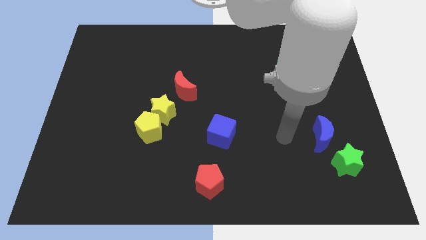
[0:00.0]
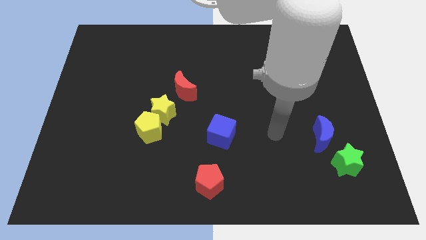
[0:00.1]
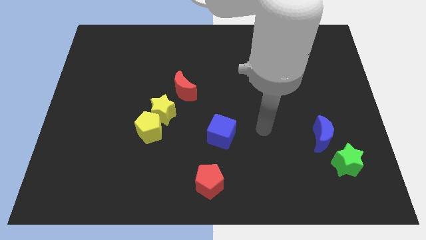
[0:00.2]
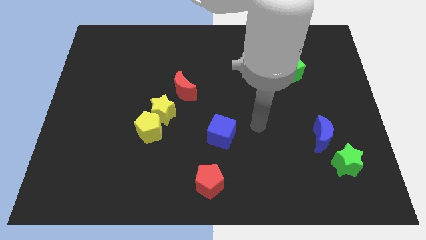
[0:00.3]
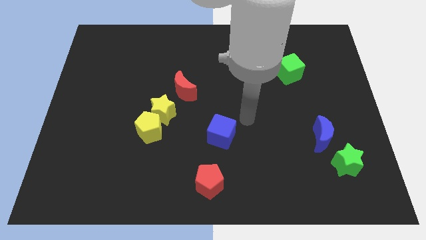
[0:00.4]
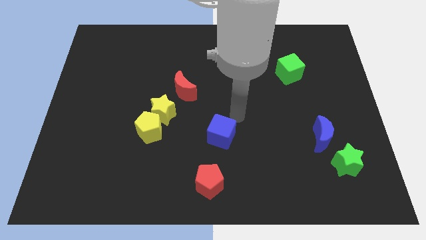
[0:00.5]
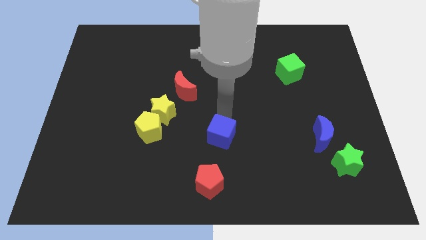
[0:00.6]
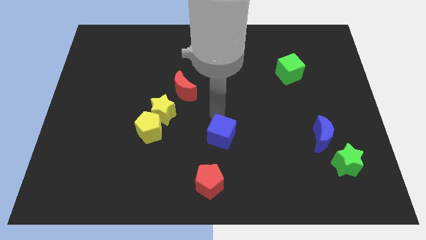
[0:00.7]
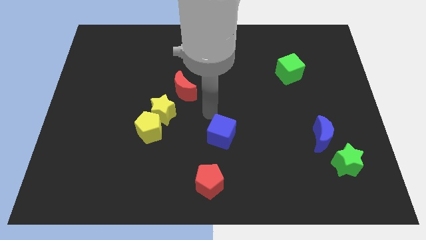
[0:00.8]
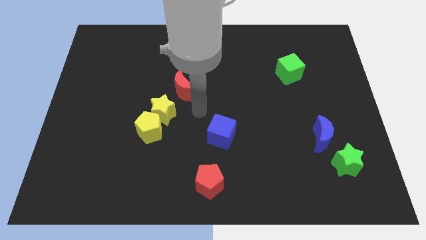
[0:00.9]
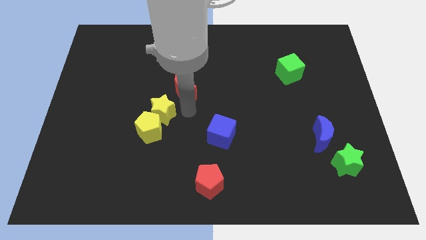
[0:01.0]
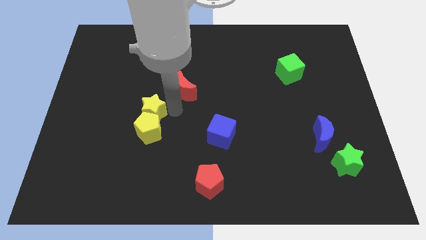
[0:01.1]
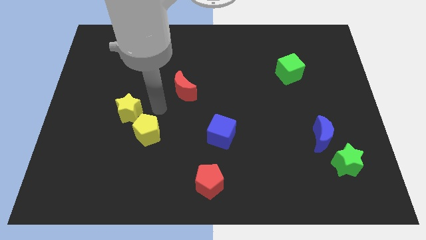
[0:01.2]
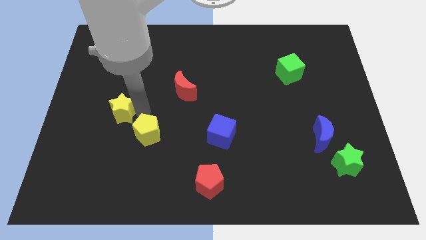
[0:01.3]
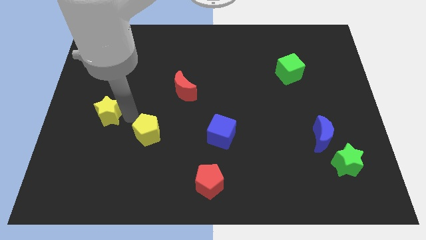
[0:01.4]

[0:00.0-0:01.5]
move the yellow pentagon away from the yellow star

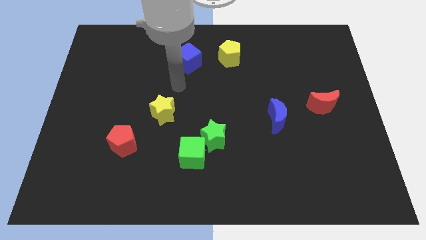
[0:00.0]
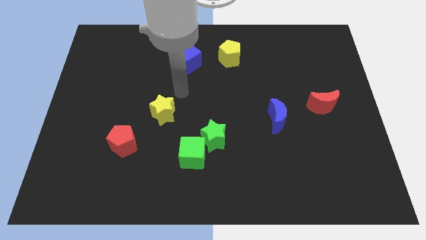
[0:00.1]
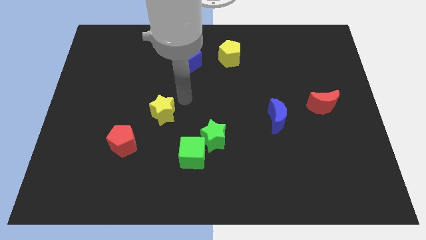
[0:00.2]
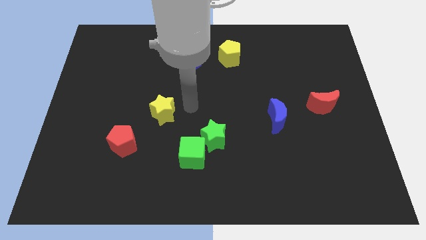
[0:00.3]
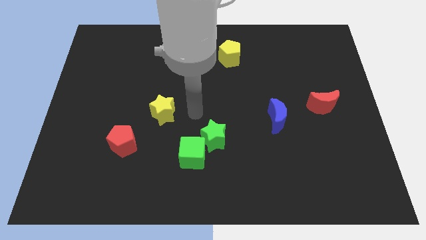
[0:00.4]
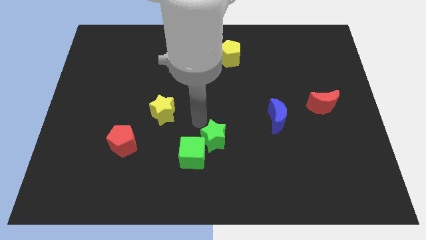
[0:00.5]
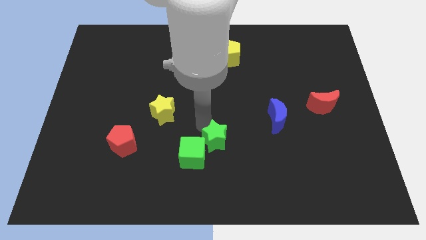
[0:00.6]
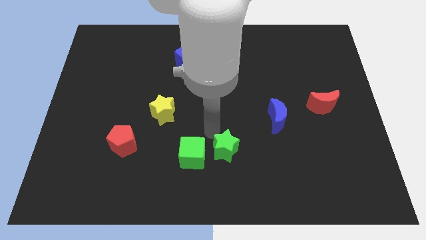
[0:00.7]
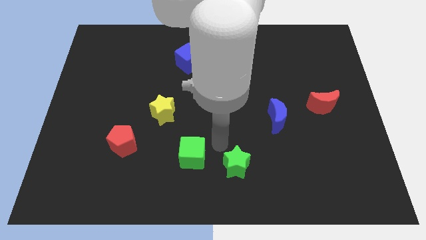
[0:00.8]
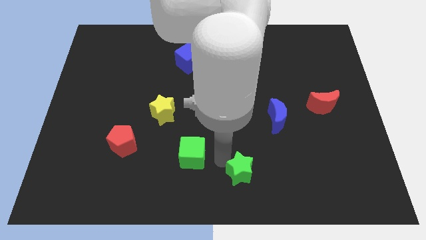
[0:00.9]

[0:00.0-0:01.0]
separate the green cube from the green star

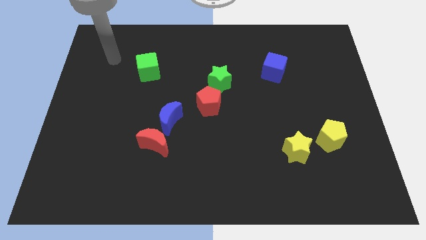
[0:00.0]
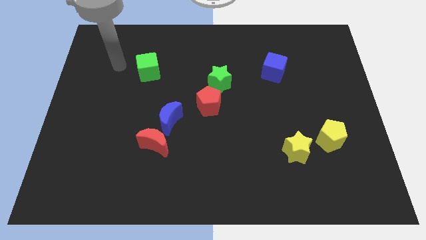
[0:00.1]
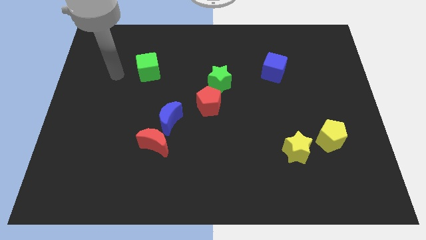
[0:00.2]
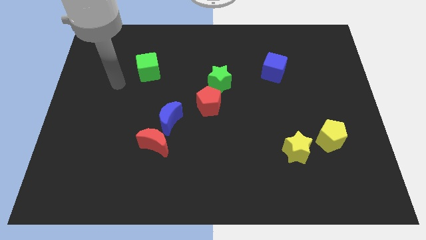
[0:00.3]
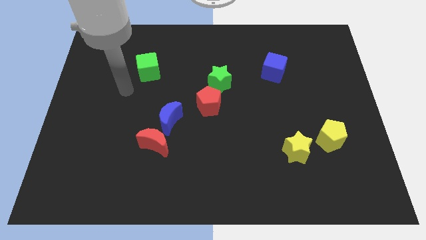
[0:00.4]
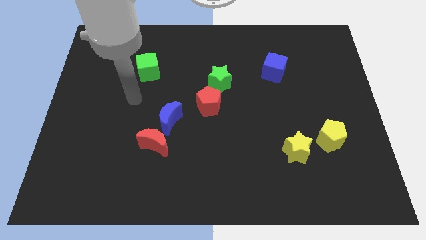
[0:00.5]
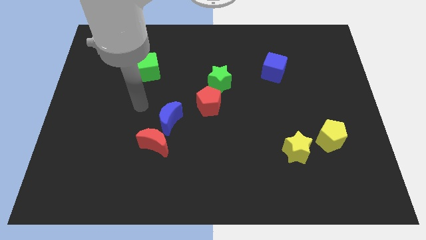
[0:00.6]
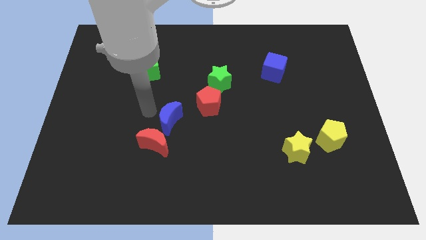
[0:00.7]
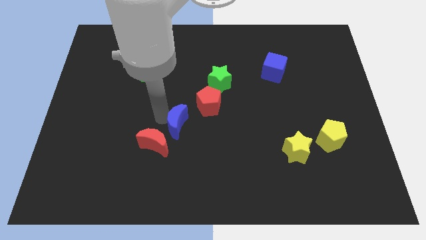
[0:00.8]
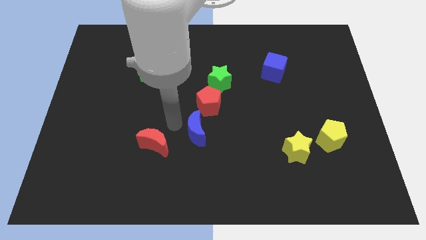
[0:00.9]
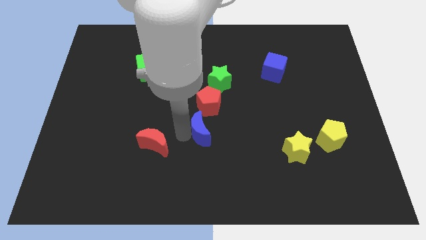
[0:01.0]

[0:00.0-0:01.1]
pull the red moon apart from the blue moon

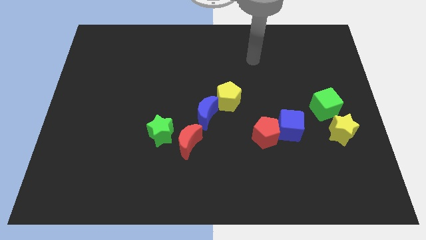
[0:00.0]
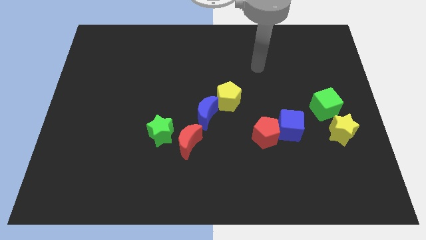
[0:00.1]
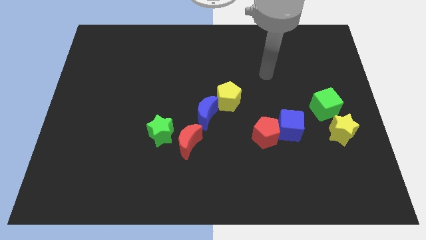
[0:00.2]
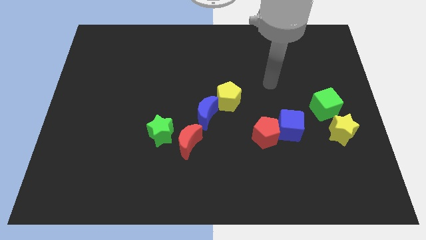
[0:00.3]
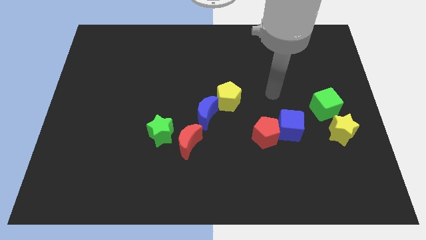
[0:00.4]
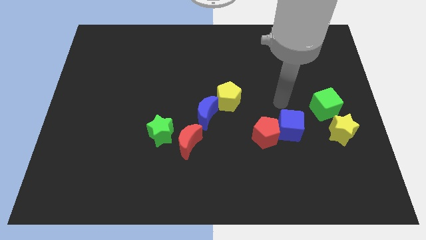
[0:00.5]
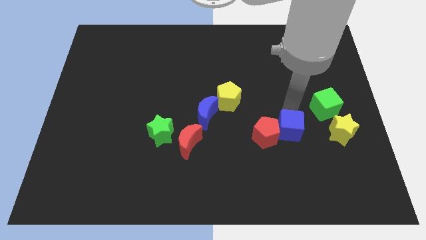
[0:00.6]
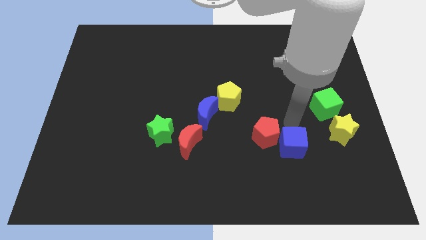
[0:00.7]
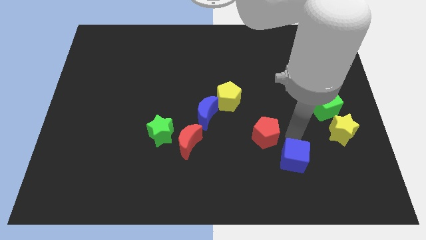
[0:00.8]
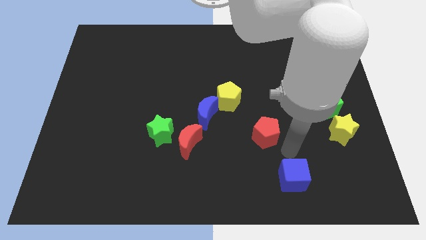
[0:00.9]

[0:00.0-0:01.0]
pull the red pentagon apart from the blue cube

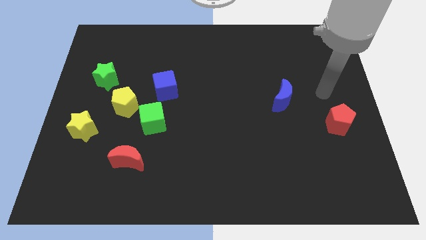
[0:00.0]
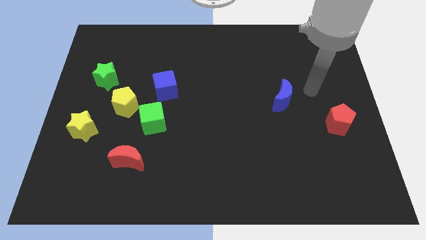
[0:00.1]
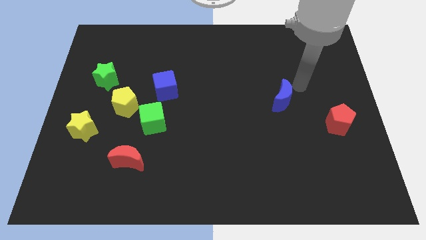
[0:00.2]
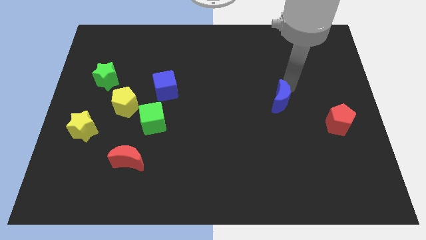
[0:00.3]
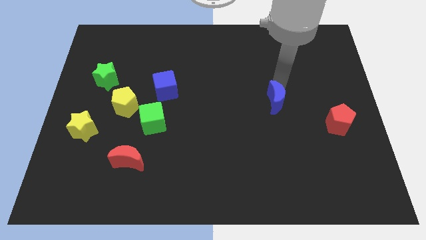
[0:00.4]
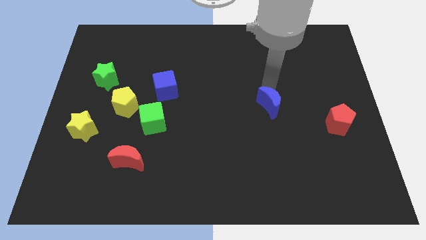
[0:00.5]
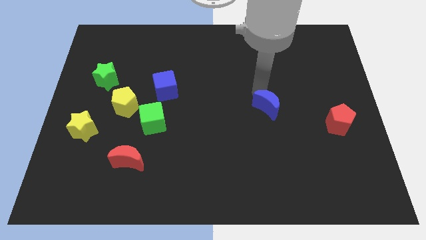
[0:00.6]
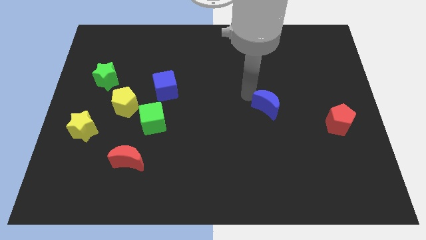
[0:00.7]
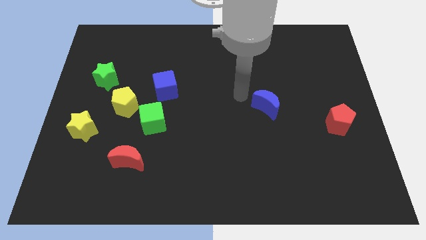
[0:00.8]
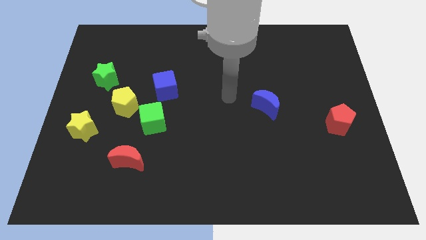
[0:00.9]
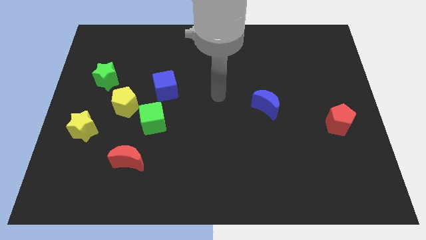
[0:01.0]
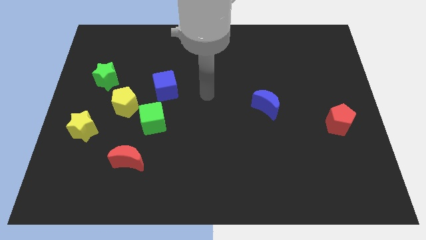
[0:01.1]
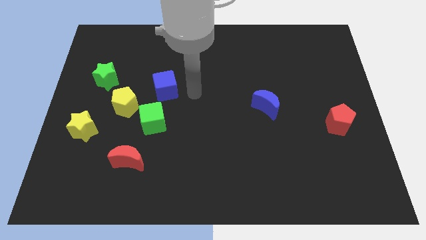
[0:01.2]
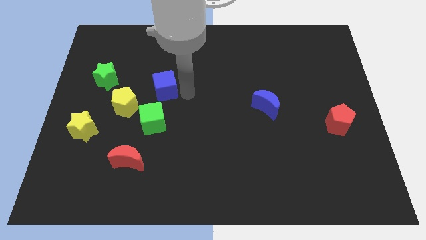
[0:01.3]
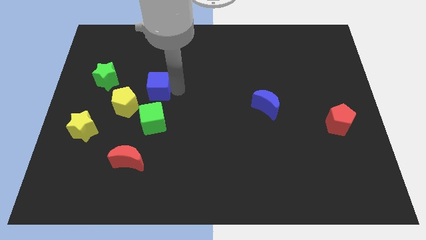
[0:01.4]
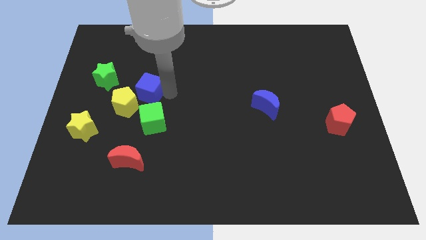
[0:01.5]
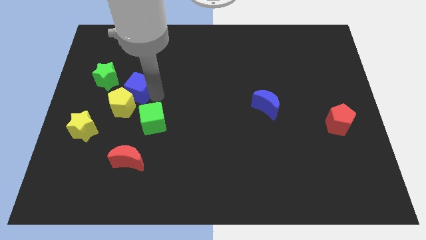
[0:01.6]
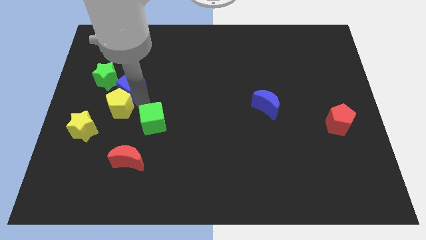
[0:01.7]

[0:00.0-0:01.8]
move the green cube away from the yellow pentagon and blue cube

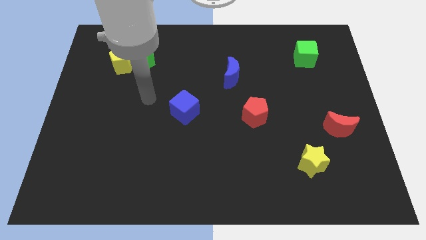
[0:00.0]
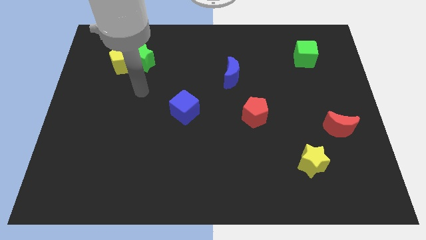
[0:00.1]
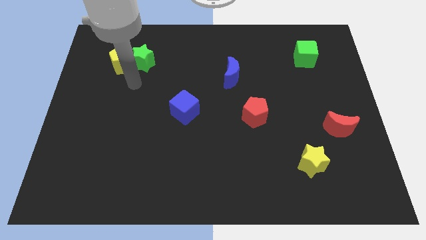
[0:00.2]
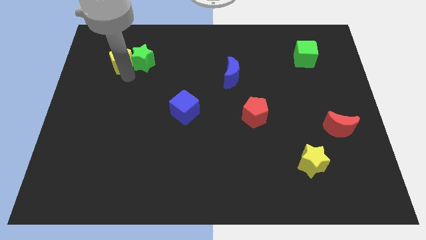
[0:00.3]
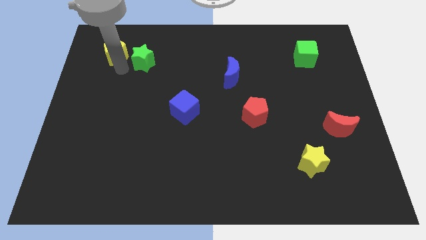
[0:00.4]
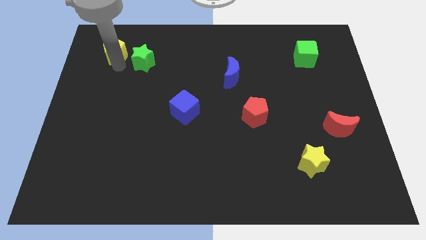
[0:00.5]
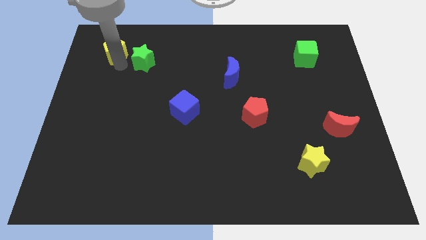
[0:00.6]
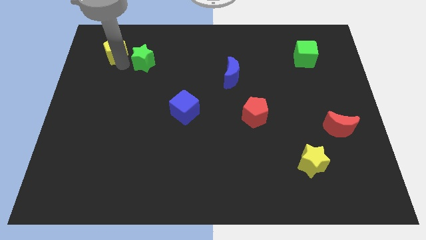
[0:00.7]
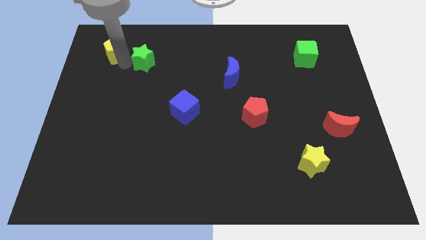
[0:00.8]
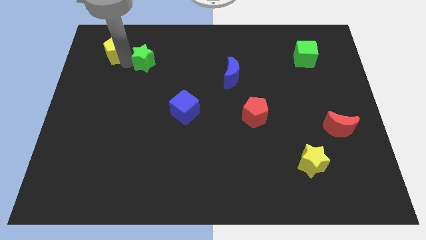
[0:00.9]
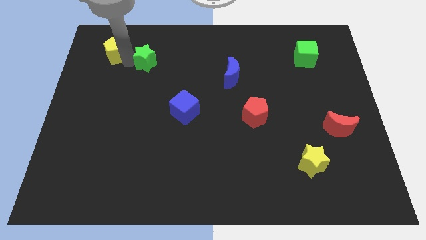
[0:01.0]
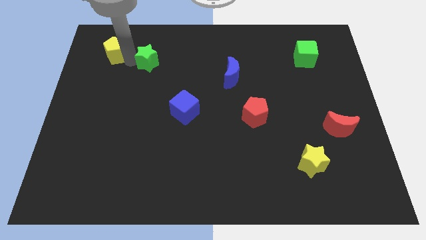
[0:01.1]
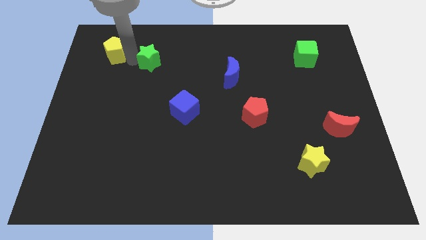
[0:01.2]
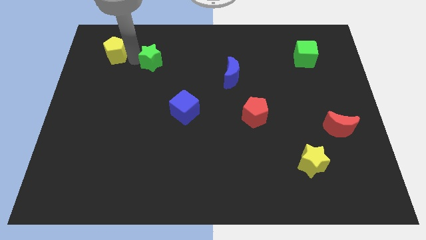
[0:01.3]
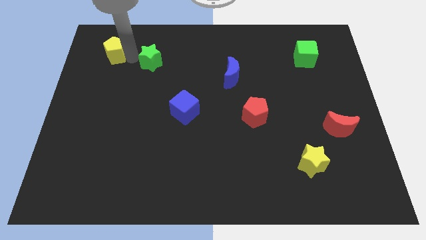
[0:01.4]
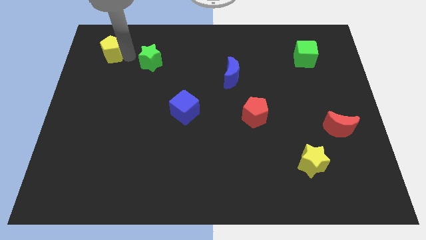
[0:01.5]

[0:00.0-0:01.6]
move the green star away from the yellow pentagon

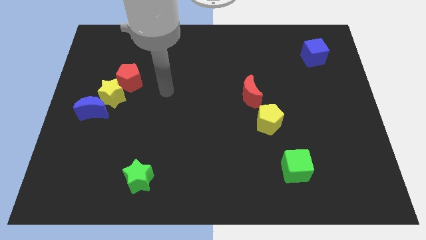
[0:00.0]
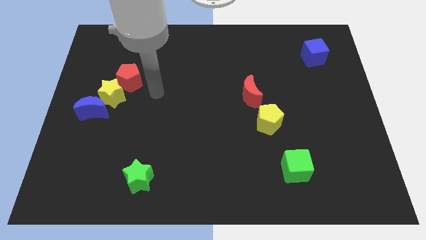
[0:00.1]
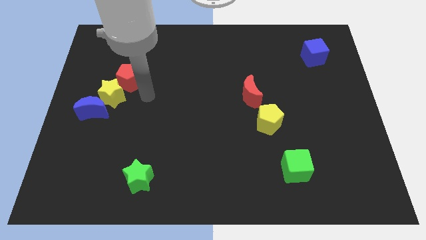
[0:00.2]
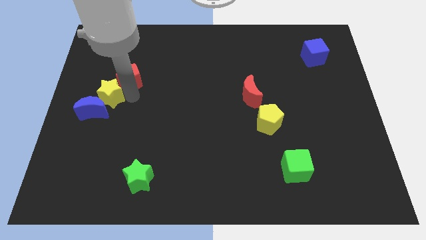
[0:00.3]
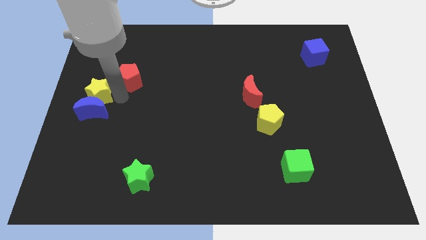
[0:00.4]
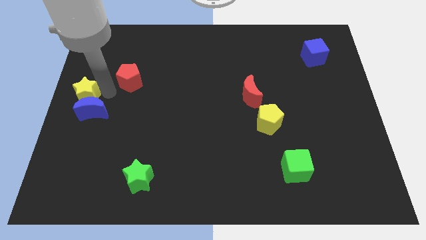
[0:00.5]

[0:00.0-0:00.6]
pull the red pentagon apart from the yellow star

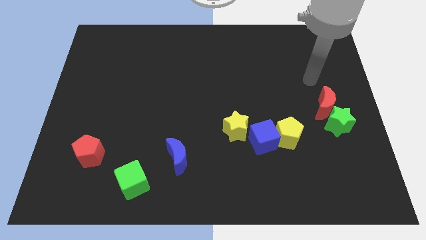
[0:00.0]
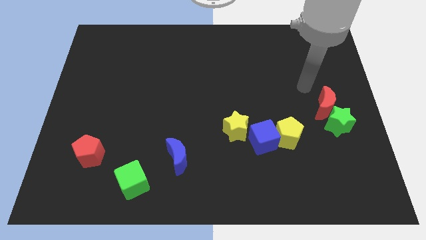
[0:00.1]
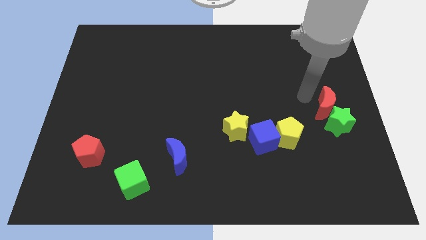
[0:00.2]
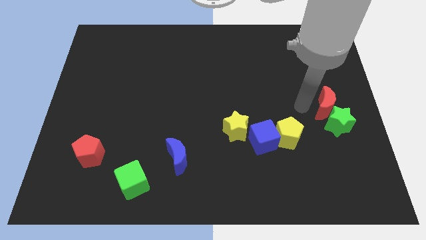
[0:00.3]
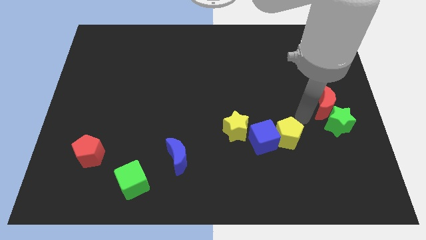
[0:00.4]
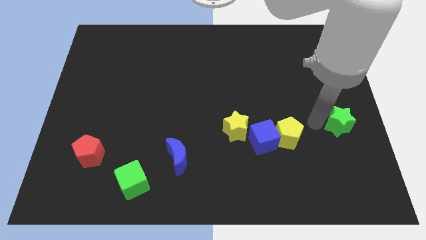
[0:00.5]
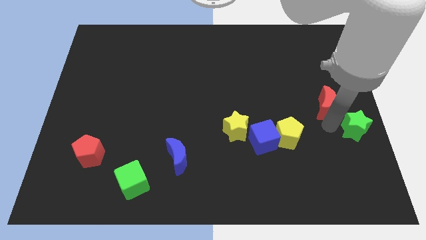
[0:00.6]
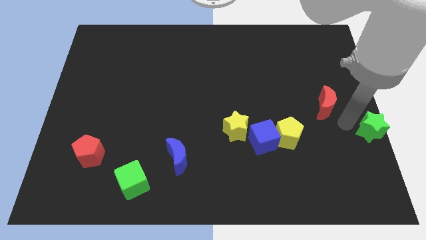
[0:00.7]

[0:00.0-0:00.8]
separate the red moon from the green star
